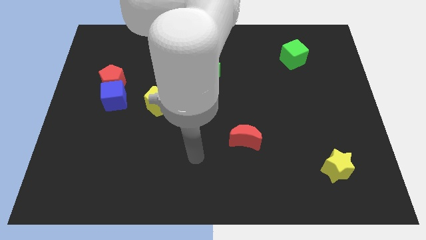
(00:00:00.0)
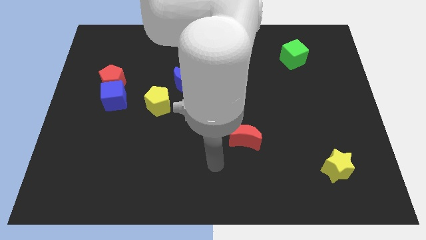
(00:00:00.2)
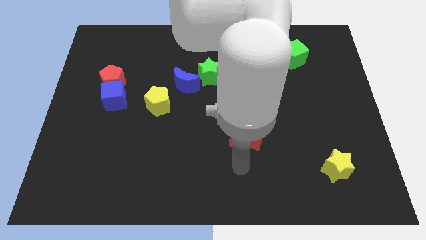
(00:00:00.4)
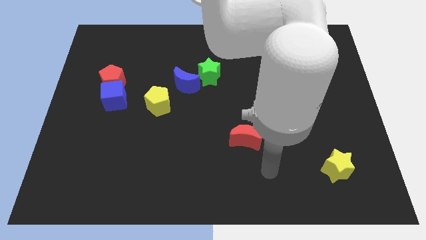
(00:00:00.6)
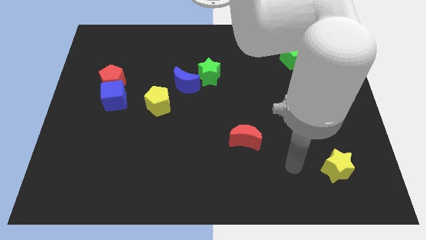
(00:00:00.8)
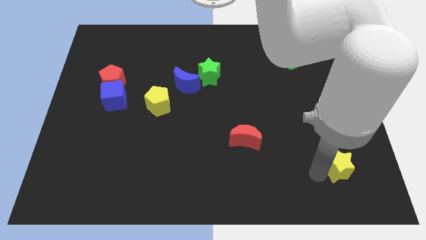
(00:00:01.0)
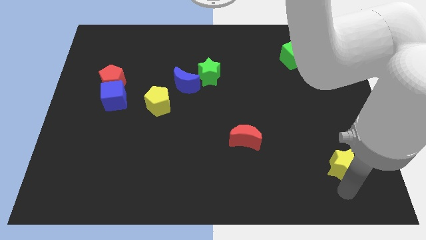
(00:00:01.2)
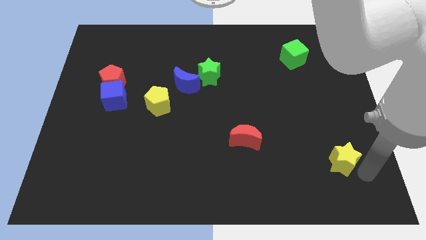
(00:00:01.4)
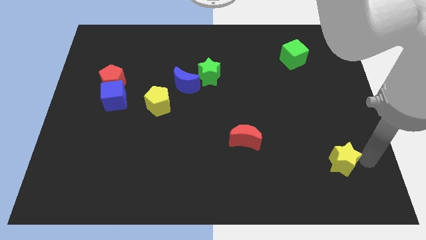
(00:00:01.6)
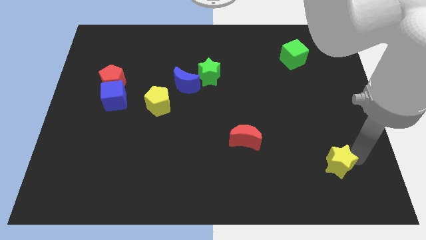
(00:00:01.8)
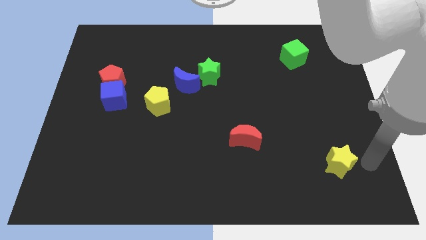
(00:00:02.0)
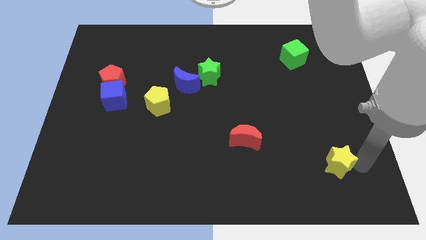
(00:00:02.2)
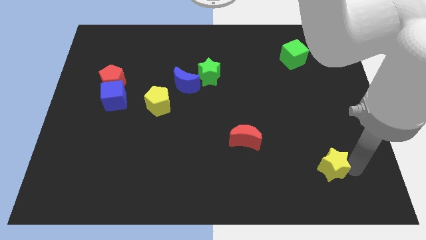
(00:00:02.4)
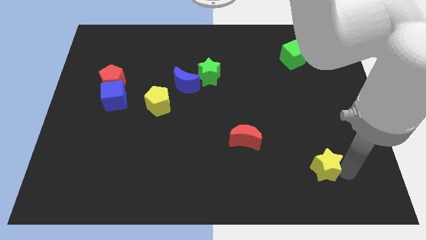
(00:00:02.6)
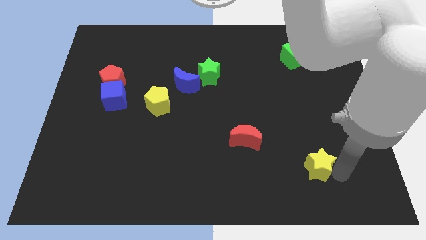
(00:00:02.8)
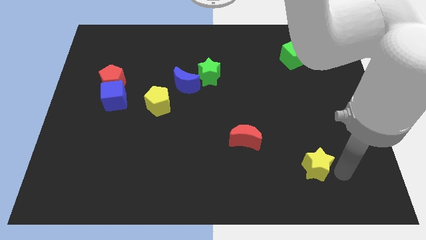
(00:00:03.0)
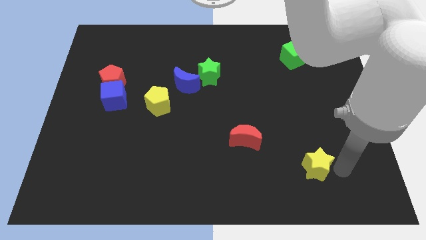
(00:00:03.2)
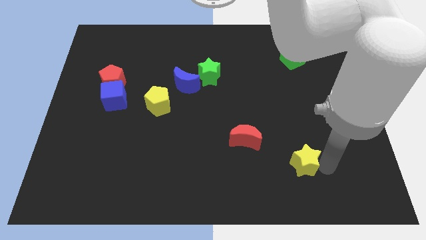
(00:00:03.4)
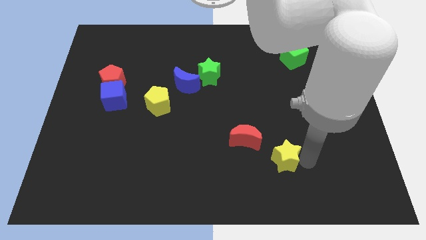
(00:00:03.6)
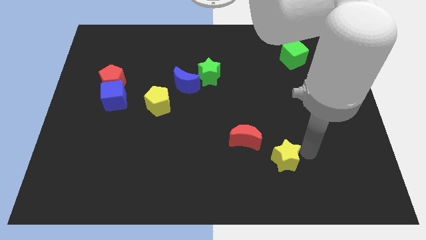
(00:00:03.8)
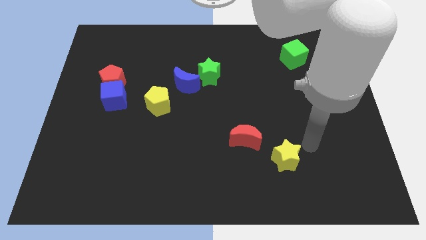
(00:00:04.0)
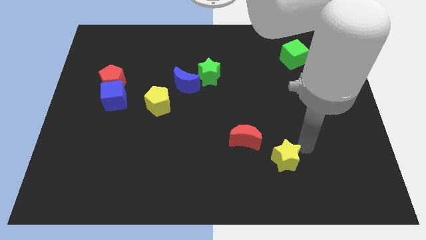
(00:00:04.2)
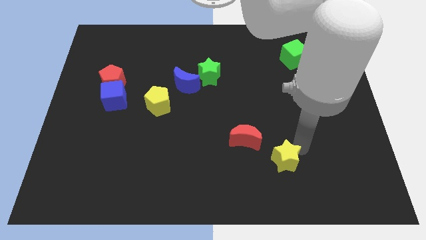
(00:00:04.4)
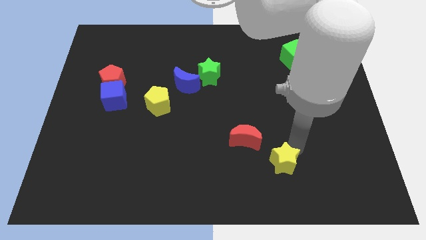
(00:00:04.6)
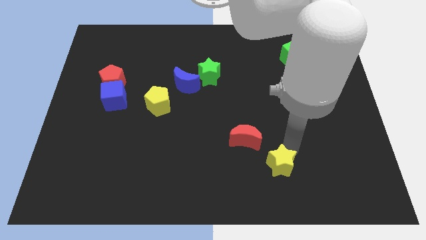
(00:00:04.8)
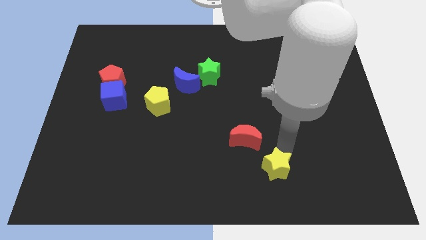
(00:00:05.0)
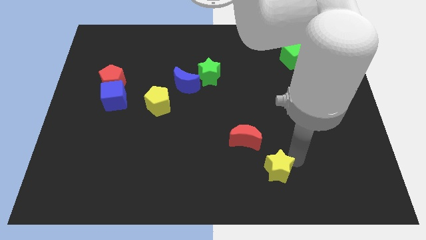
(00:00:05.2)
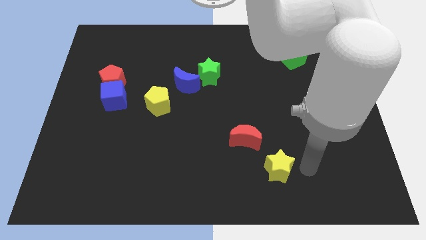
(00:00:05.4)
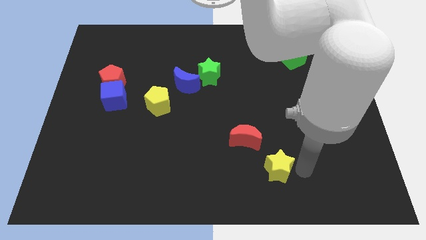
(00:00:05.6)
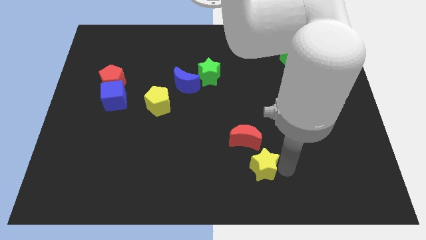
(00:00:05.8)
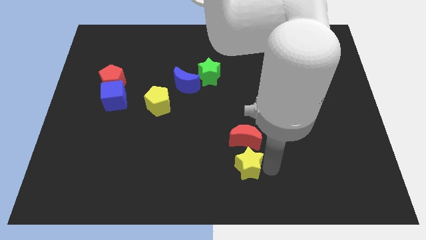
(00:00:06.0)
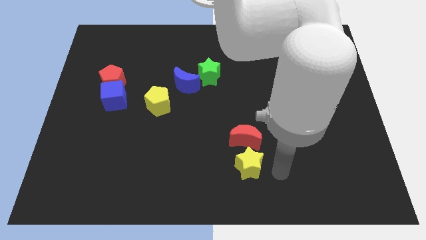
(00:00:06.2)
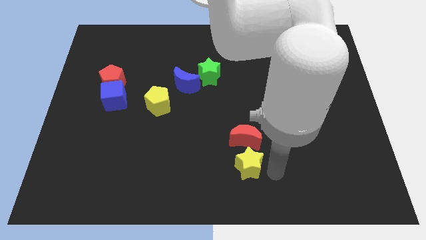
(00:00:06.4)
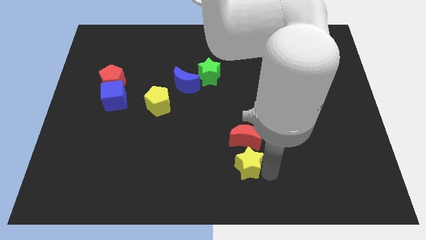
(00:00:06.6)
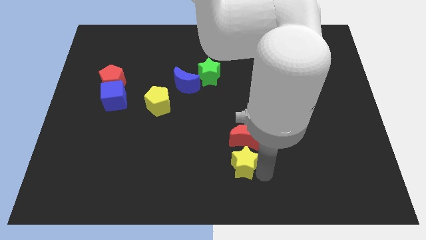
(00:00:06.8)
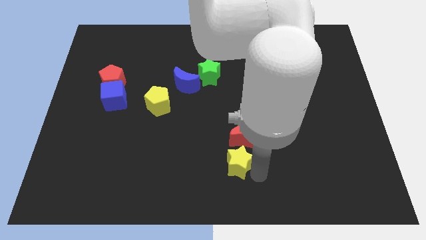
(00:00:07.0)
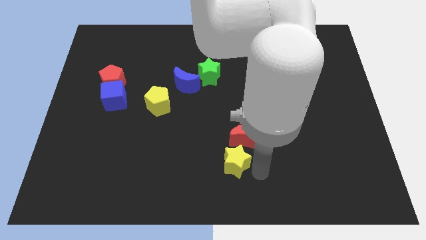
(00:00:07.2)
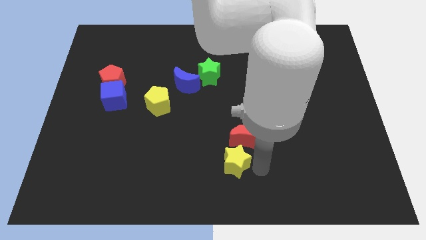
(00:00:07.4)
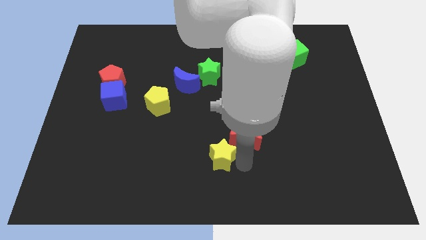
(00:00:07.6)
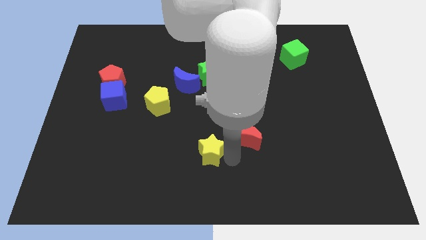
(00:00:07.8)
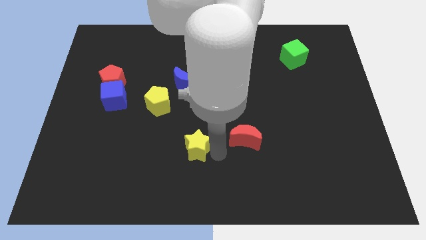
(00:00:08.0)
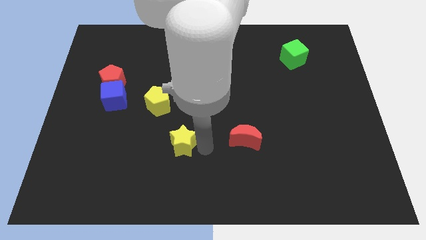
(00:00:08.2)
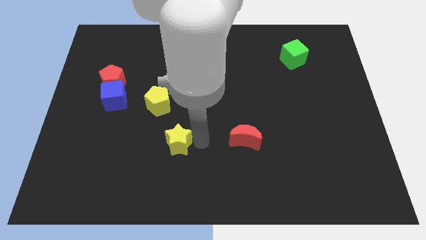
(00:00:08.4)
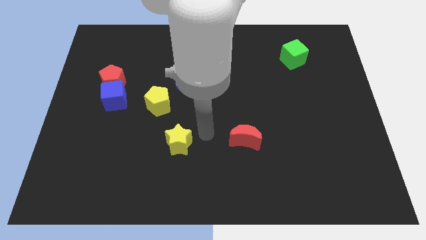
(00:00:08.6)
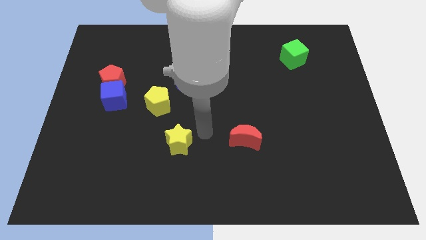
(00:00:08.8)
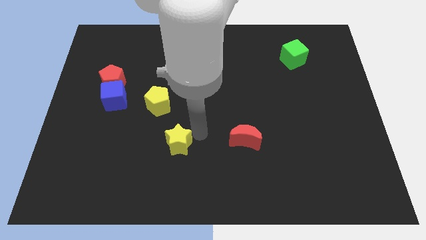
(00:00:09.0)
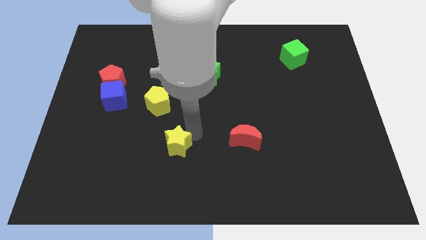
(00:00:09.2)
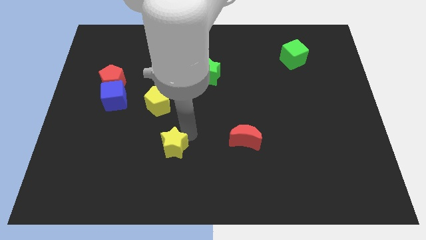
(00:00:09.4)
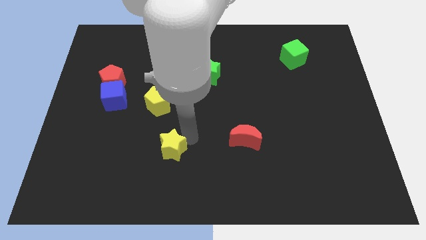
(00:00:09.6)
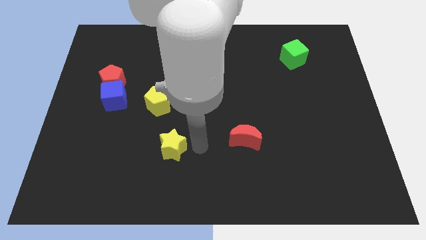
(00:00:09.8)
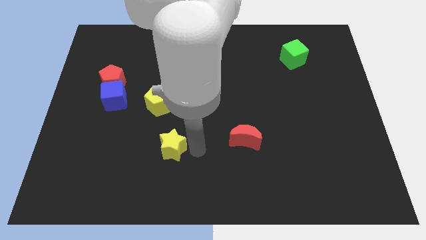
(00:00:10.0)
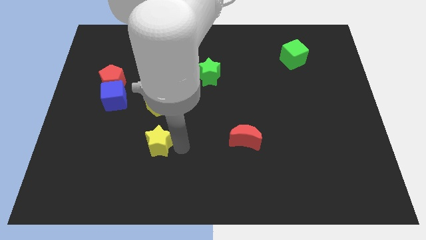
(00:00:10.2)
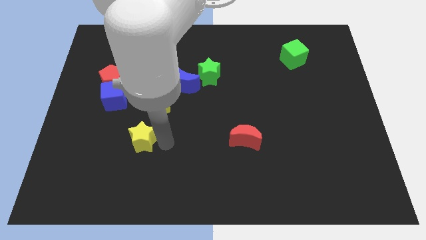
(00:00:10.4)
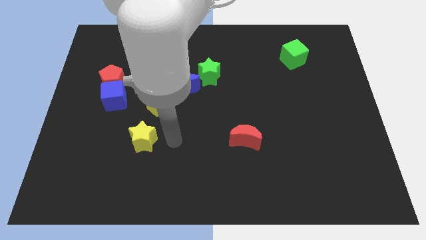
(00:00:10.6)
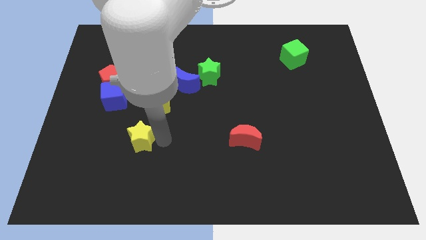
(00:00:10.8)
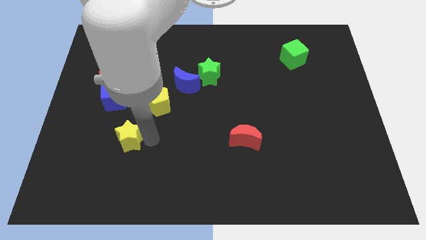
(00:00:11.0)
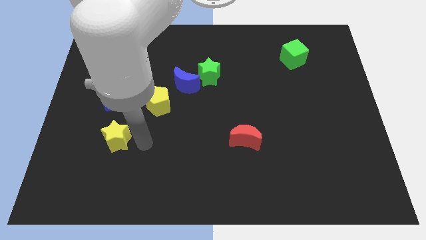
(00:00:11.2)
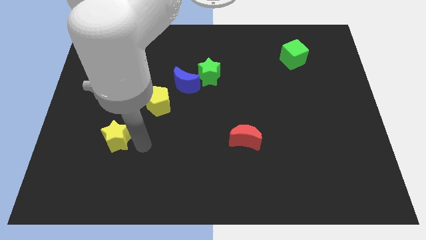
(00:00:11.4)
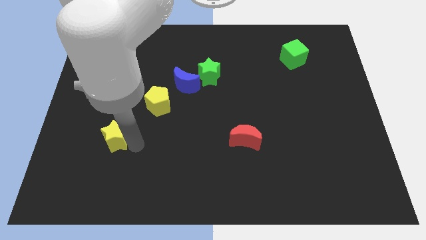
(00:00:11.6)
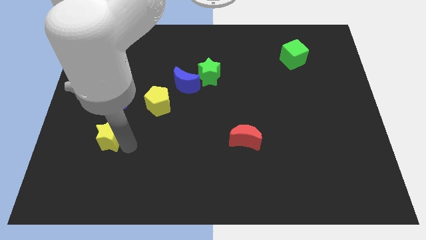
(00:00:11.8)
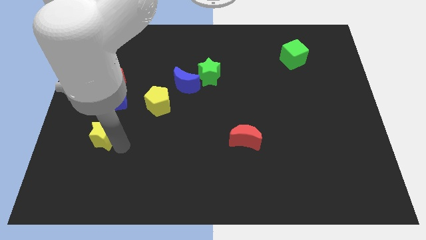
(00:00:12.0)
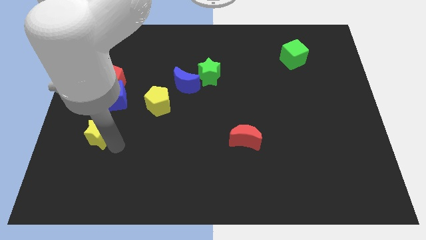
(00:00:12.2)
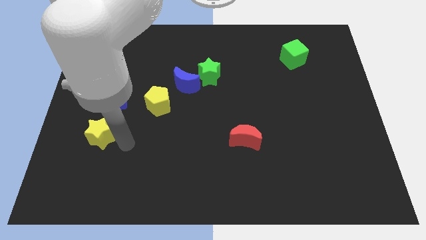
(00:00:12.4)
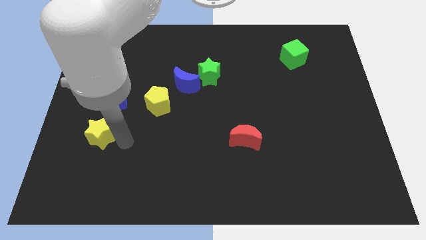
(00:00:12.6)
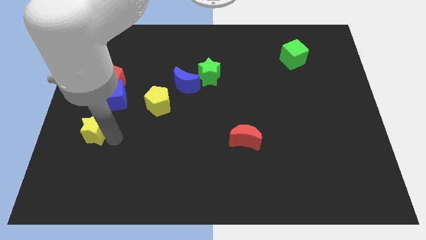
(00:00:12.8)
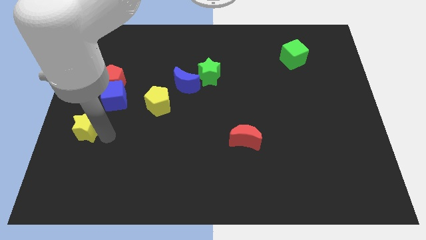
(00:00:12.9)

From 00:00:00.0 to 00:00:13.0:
push the yellow star to the left side of the board
